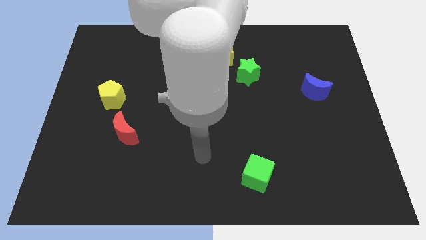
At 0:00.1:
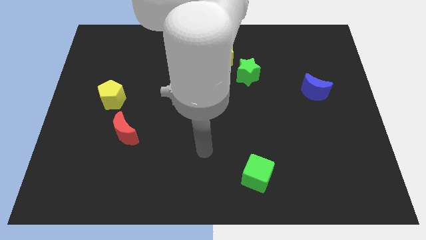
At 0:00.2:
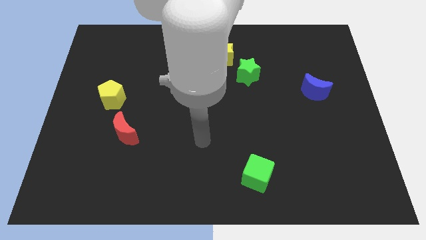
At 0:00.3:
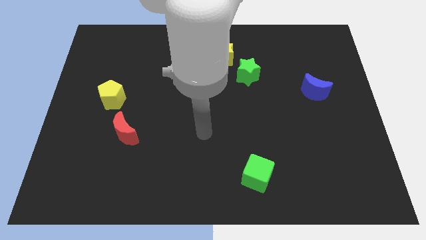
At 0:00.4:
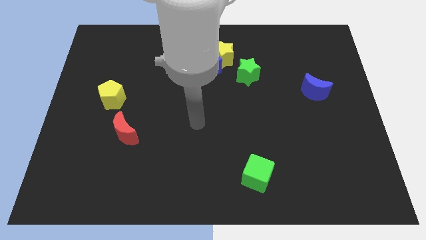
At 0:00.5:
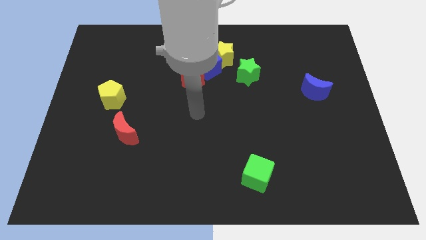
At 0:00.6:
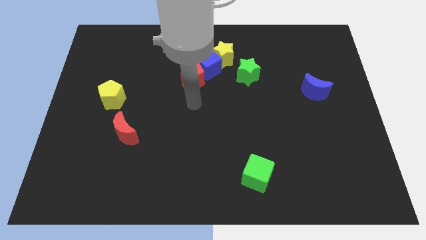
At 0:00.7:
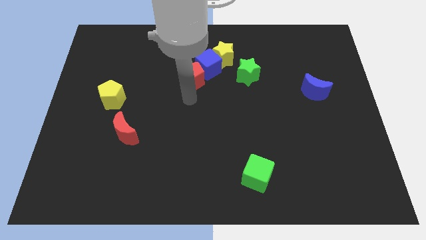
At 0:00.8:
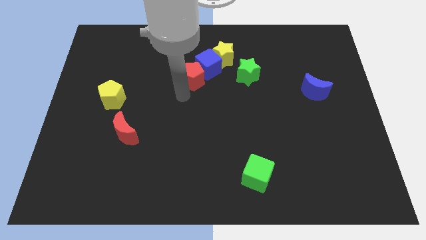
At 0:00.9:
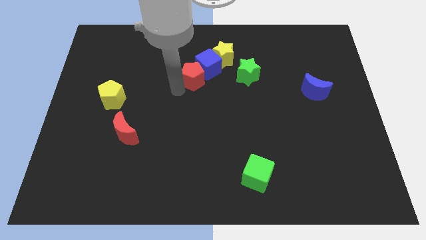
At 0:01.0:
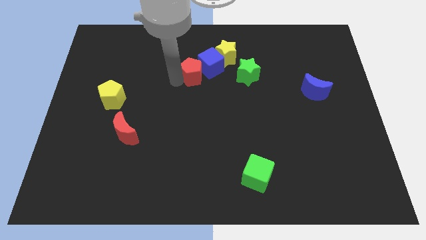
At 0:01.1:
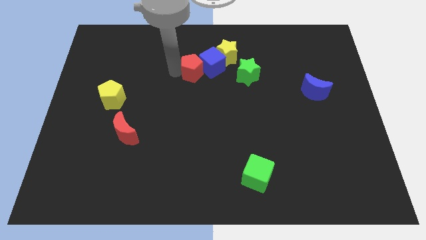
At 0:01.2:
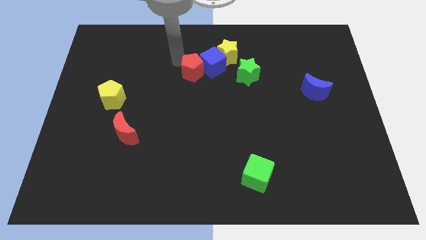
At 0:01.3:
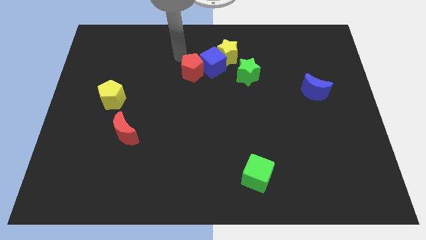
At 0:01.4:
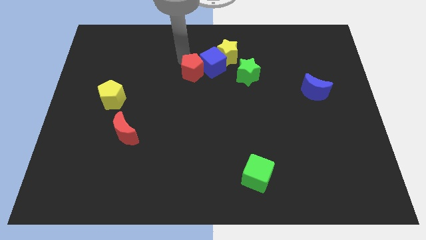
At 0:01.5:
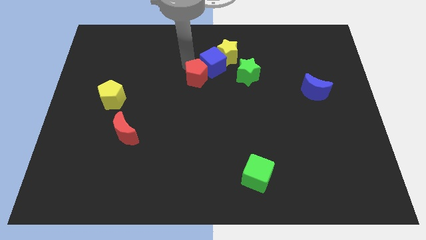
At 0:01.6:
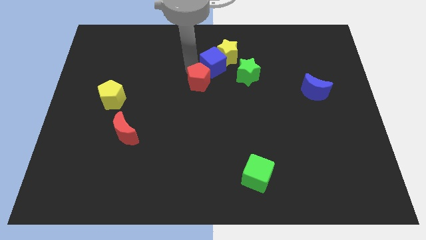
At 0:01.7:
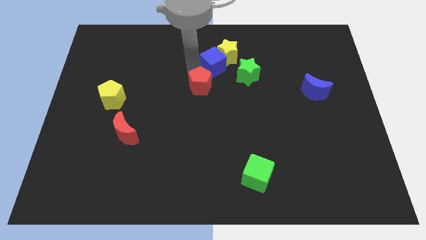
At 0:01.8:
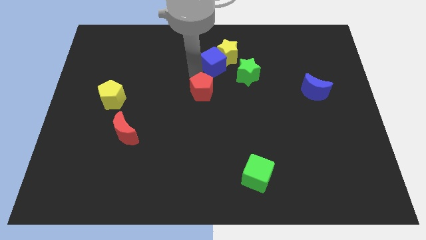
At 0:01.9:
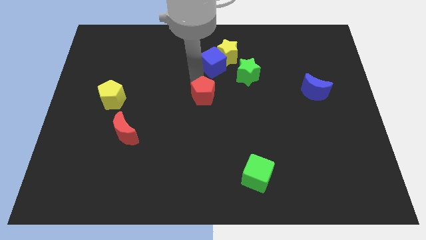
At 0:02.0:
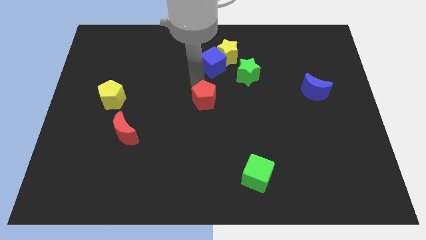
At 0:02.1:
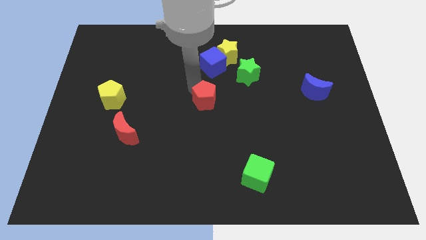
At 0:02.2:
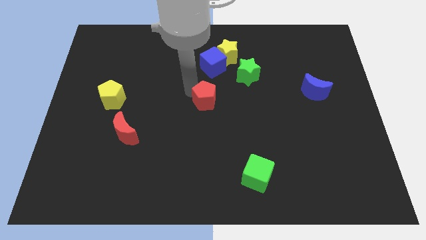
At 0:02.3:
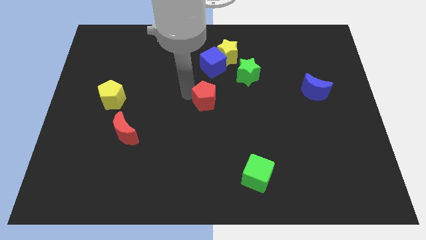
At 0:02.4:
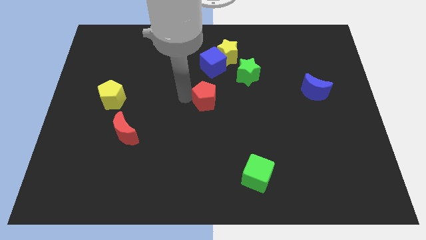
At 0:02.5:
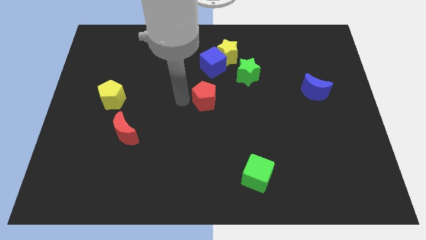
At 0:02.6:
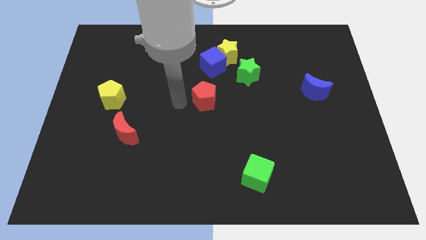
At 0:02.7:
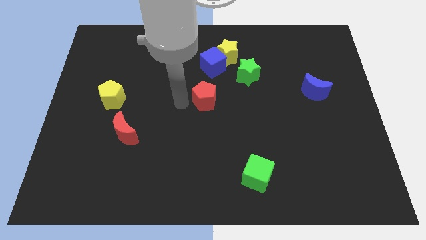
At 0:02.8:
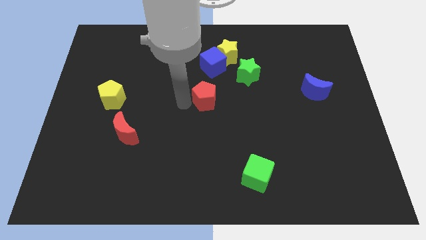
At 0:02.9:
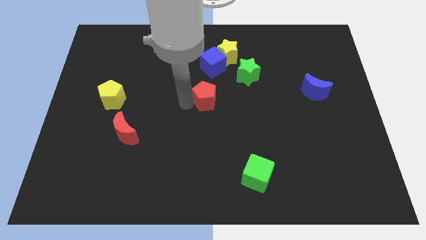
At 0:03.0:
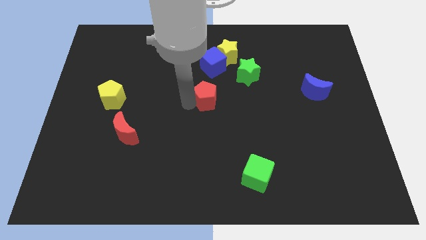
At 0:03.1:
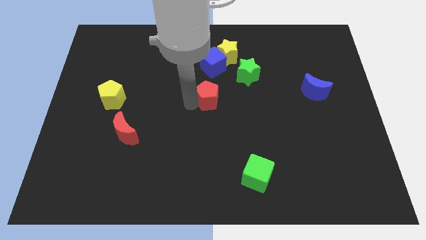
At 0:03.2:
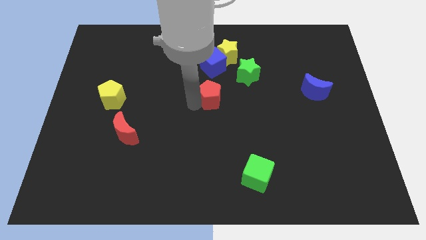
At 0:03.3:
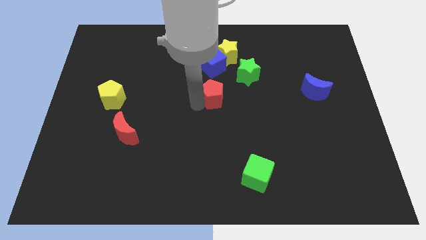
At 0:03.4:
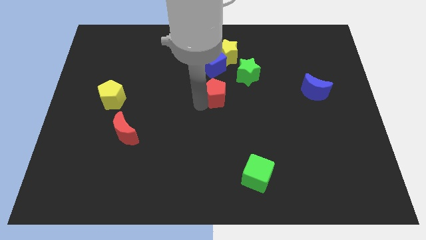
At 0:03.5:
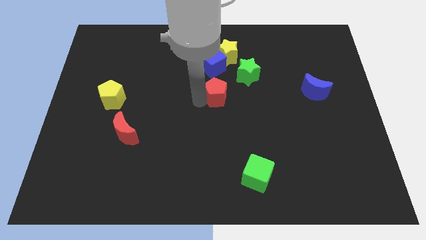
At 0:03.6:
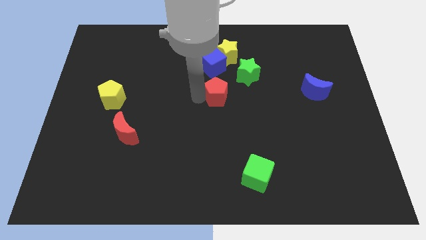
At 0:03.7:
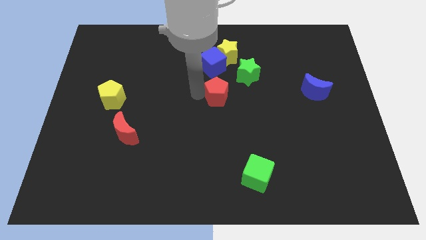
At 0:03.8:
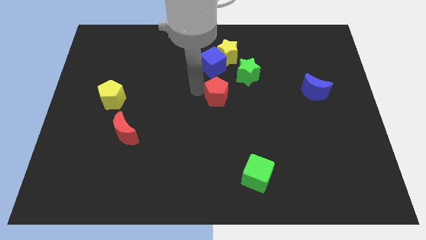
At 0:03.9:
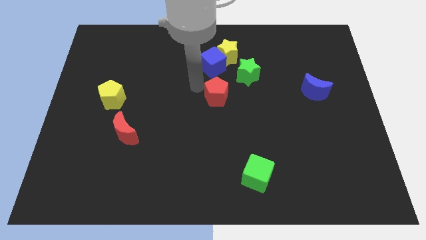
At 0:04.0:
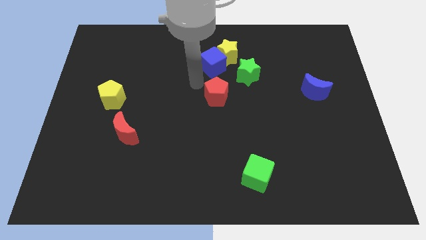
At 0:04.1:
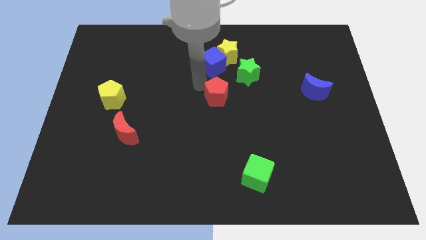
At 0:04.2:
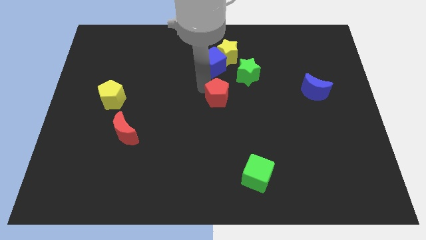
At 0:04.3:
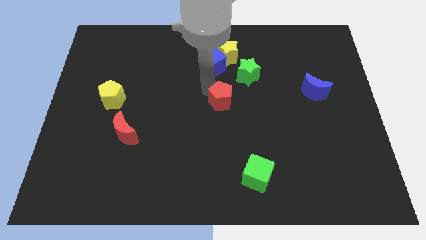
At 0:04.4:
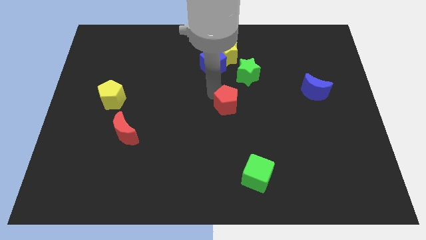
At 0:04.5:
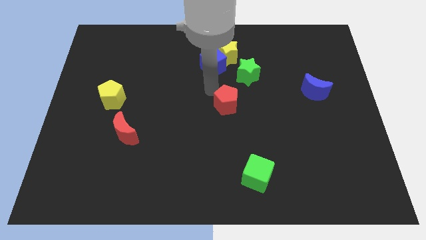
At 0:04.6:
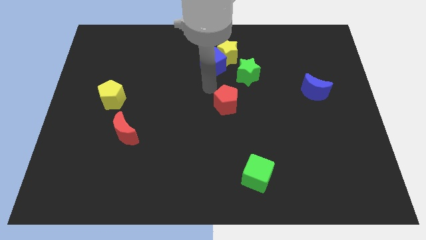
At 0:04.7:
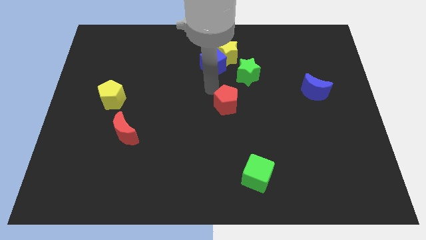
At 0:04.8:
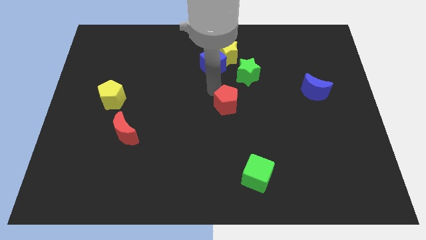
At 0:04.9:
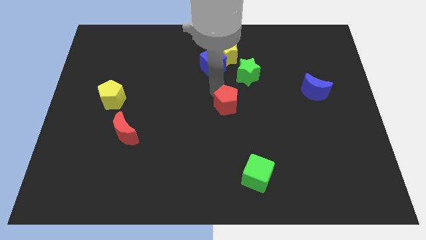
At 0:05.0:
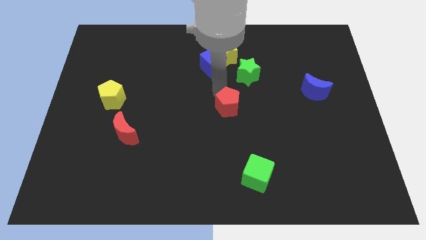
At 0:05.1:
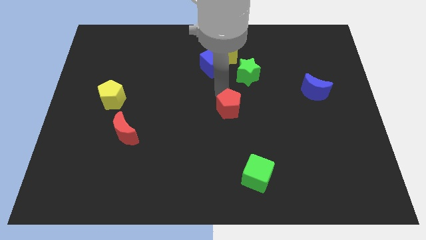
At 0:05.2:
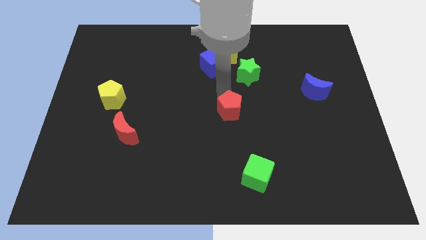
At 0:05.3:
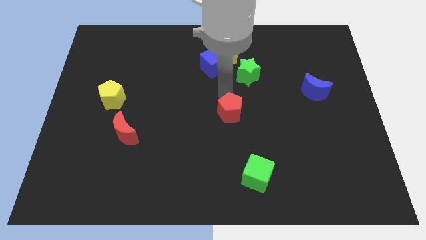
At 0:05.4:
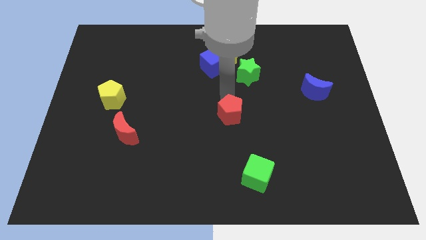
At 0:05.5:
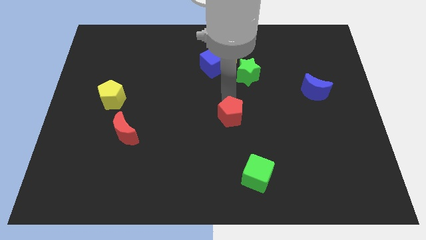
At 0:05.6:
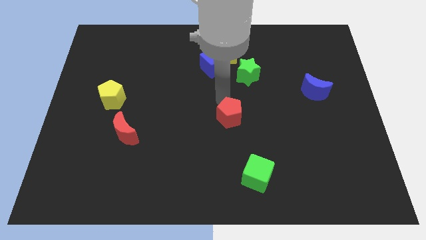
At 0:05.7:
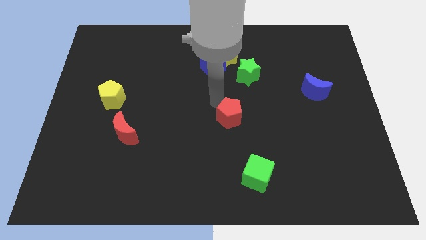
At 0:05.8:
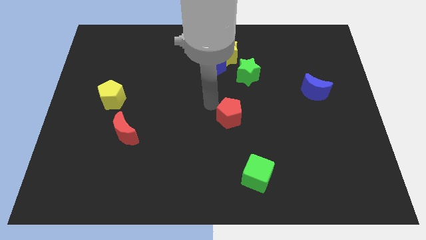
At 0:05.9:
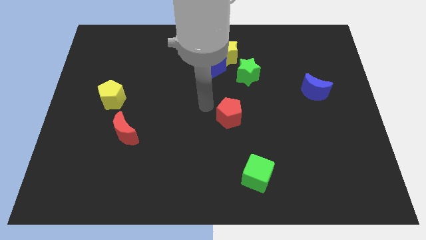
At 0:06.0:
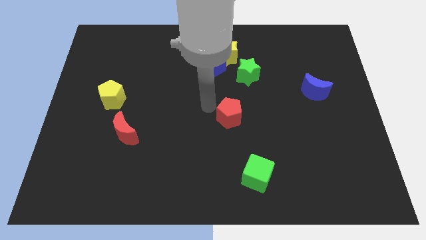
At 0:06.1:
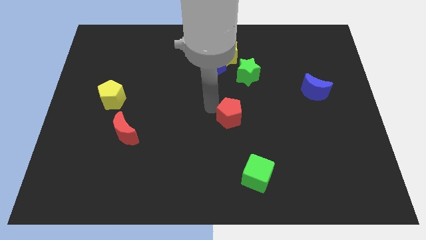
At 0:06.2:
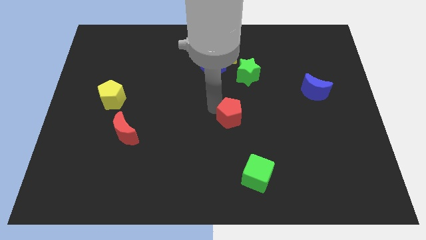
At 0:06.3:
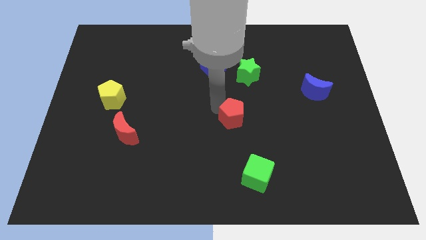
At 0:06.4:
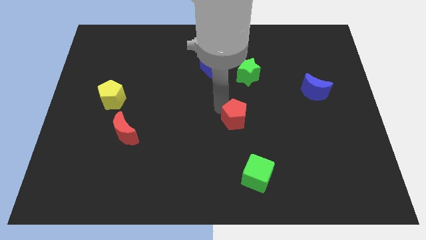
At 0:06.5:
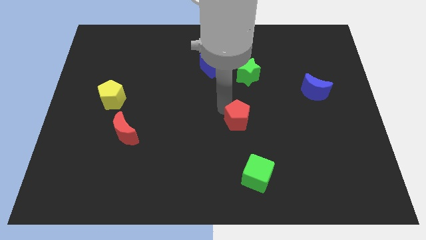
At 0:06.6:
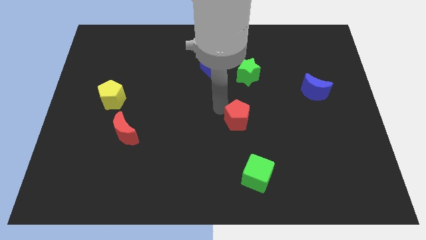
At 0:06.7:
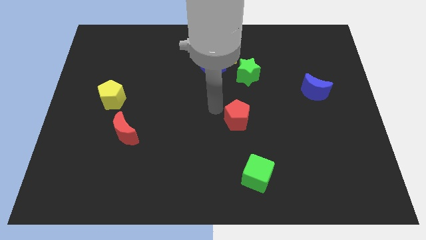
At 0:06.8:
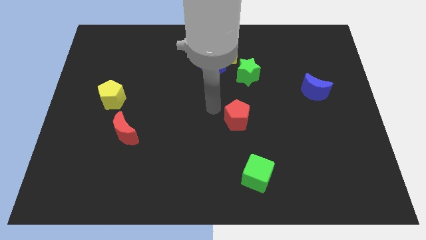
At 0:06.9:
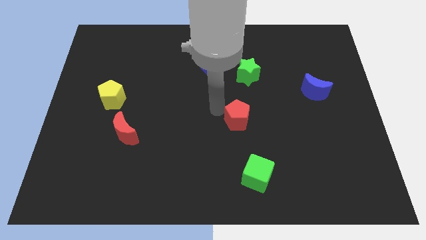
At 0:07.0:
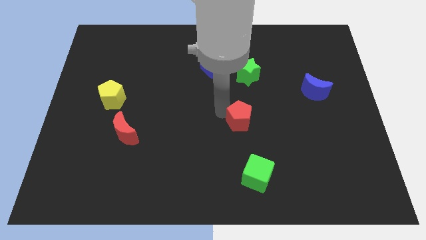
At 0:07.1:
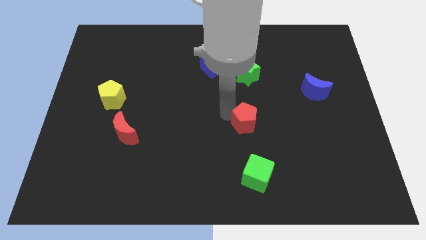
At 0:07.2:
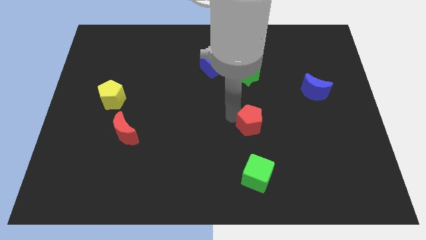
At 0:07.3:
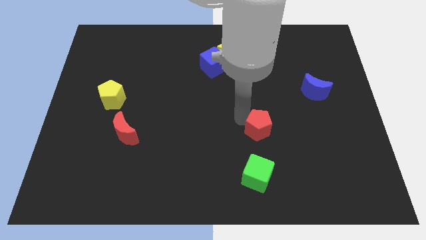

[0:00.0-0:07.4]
slide the red pentagon downwards and to the right diagonally

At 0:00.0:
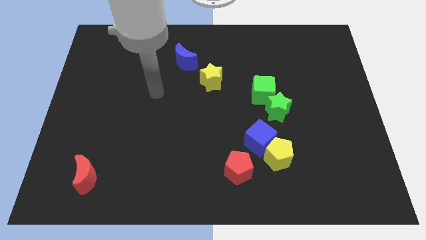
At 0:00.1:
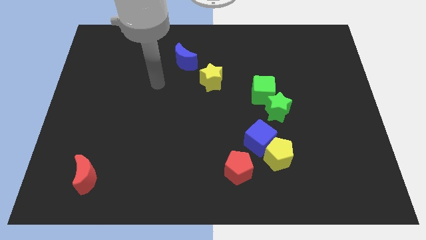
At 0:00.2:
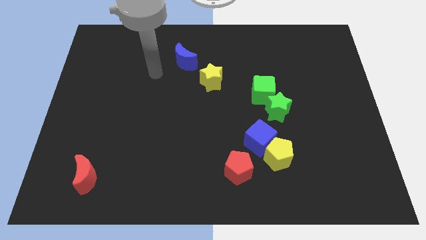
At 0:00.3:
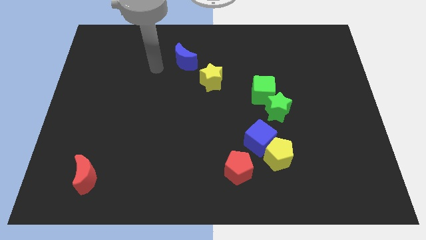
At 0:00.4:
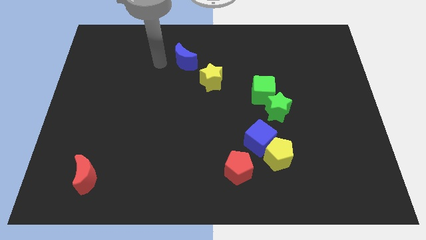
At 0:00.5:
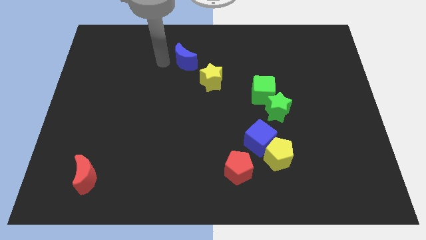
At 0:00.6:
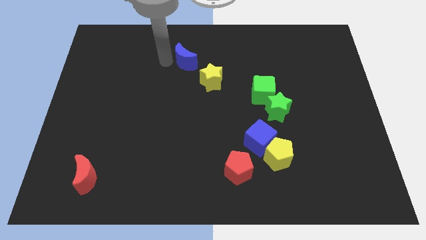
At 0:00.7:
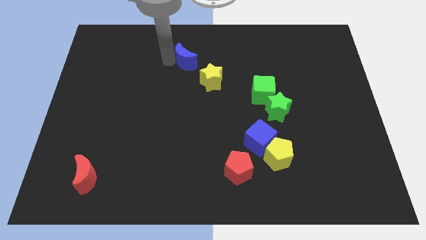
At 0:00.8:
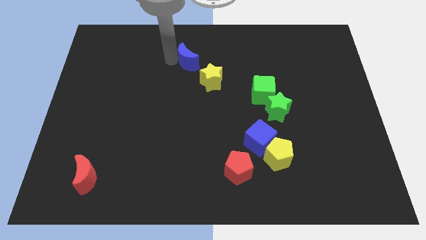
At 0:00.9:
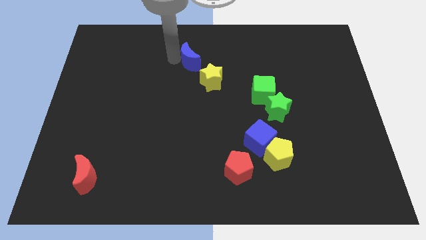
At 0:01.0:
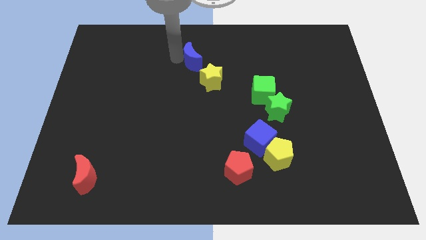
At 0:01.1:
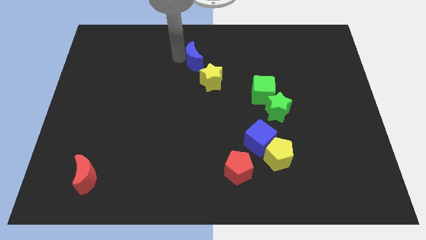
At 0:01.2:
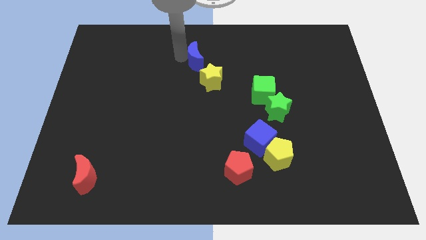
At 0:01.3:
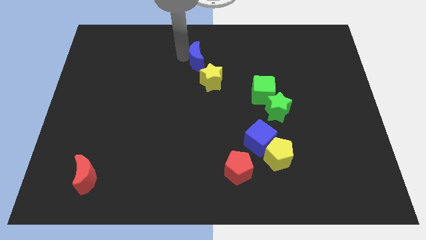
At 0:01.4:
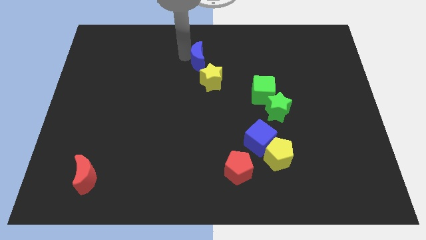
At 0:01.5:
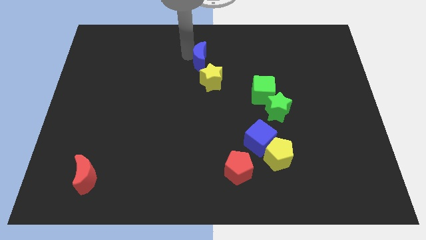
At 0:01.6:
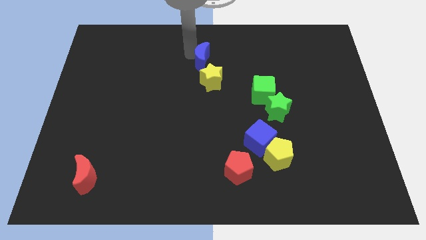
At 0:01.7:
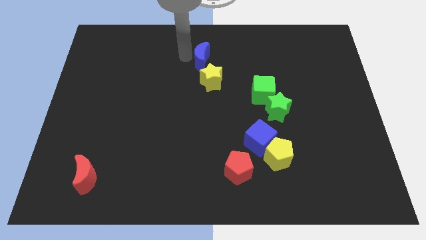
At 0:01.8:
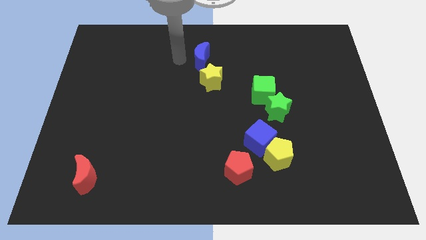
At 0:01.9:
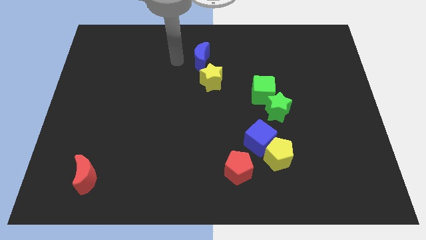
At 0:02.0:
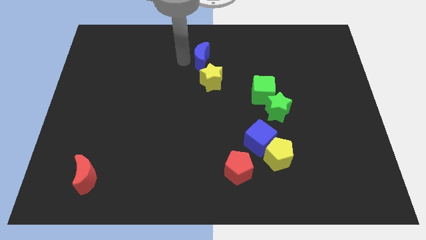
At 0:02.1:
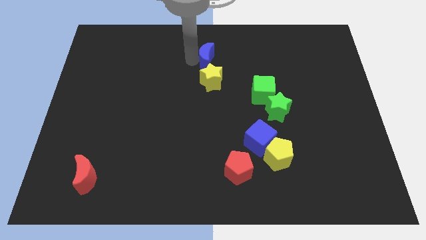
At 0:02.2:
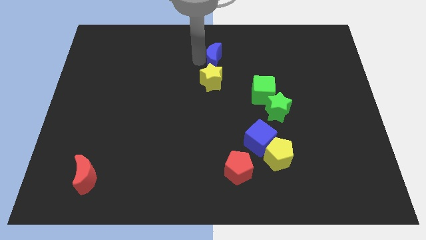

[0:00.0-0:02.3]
move the blue moon slightly right
